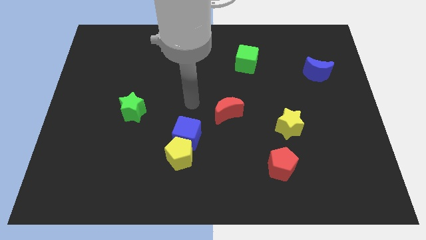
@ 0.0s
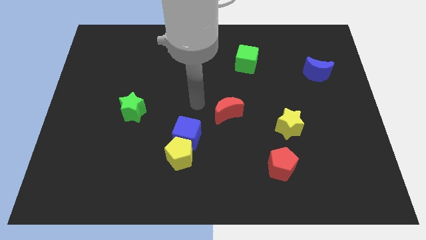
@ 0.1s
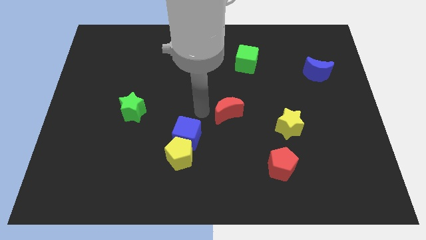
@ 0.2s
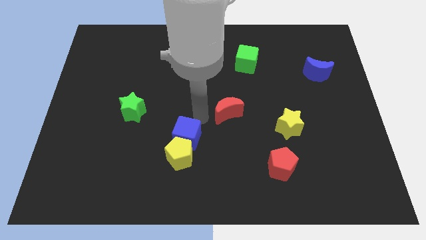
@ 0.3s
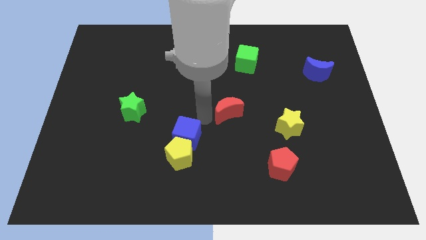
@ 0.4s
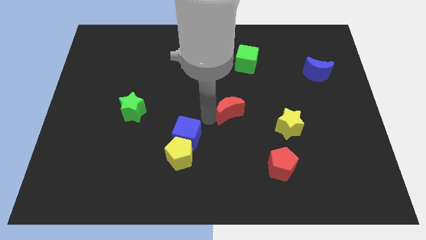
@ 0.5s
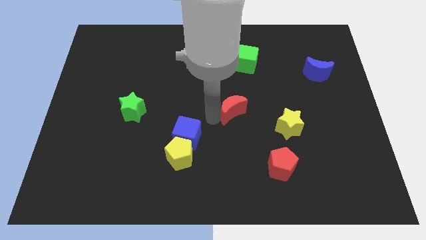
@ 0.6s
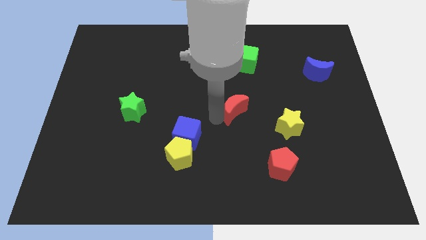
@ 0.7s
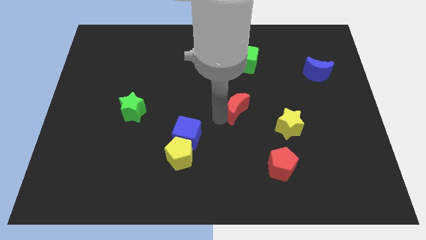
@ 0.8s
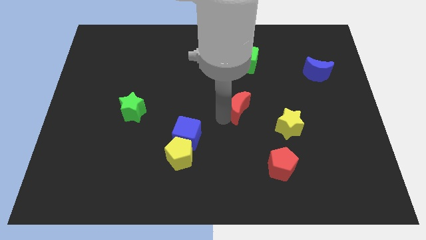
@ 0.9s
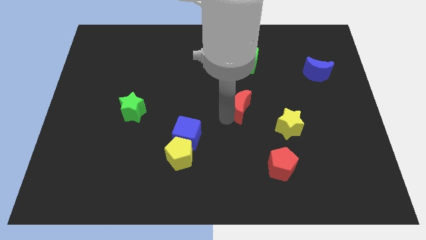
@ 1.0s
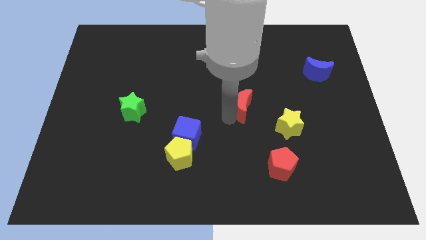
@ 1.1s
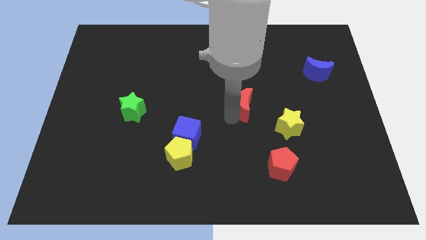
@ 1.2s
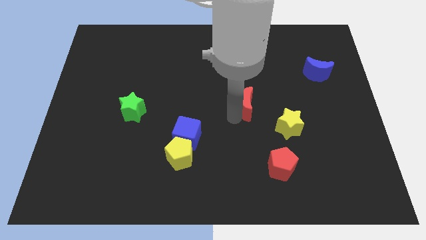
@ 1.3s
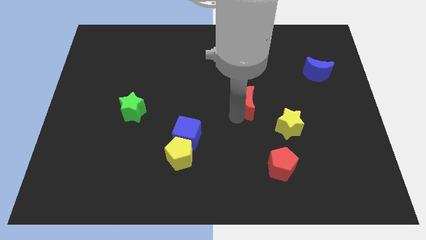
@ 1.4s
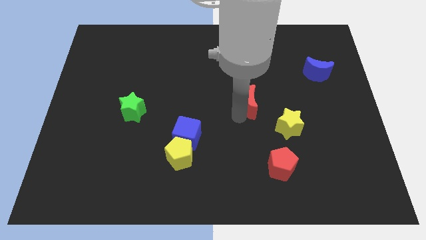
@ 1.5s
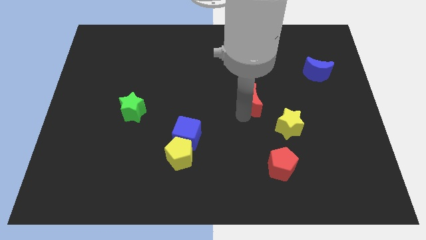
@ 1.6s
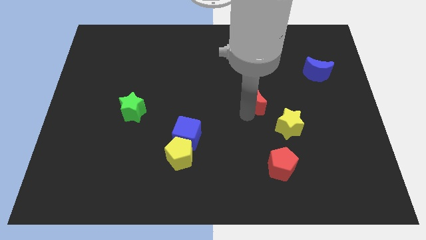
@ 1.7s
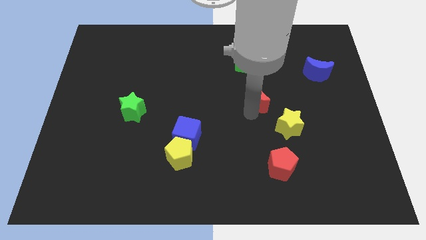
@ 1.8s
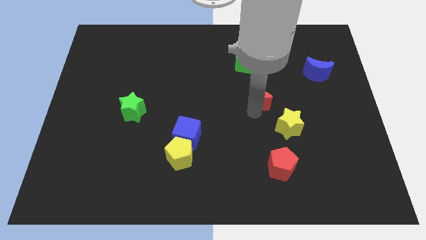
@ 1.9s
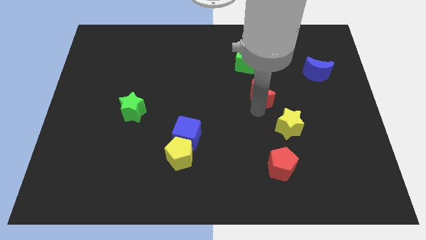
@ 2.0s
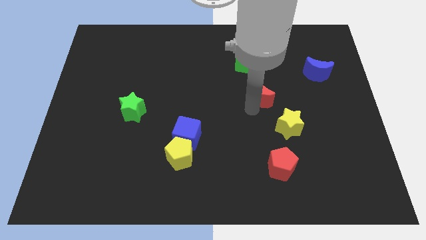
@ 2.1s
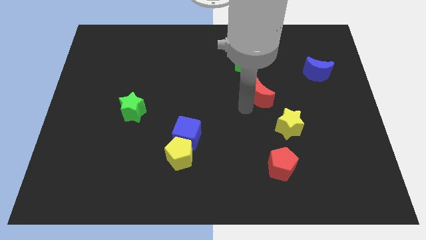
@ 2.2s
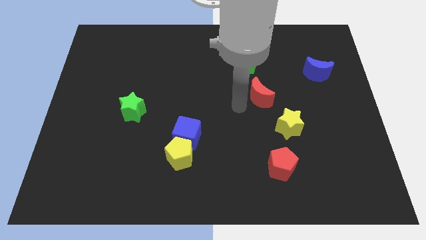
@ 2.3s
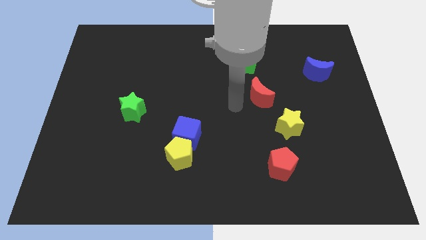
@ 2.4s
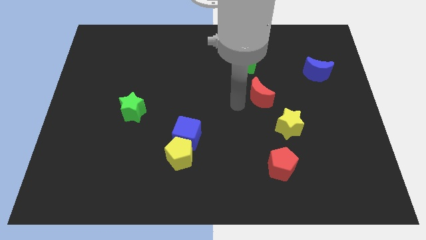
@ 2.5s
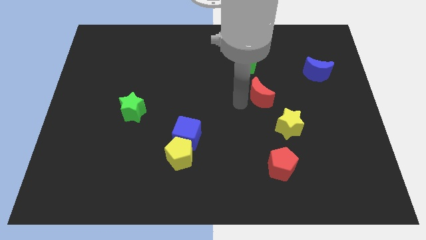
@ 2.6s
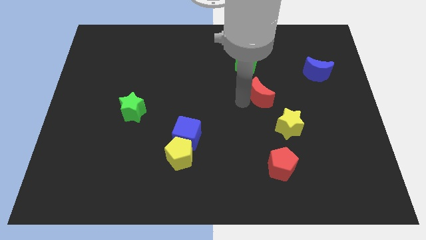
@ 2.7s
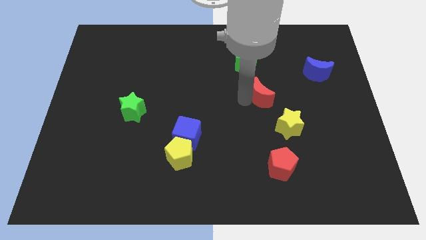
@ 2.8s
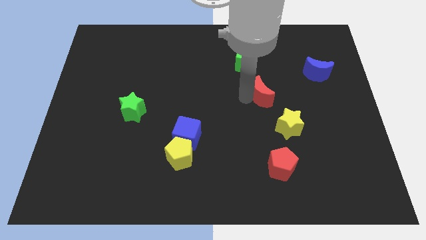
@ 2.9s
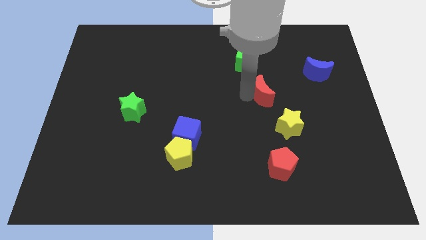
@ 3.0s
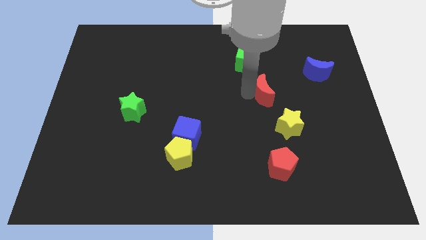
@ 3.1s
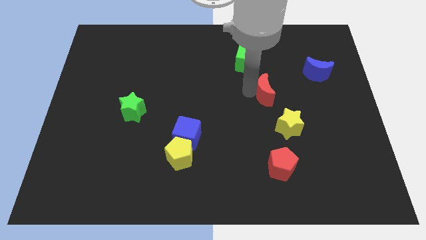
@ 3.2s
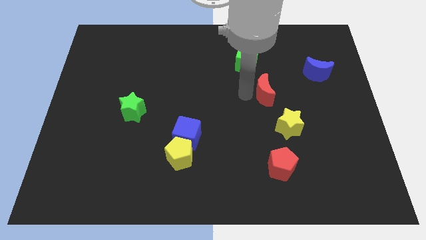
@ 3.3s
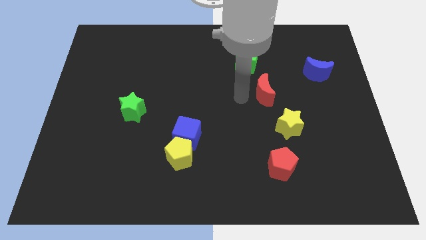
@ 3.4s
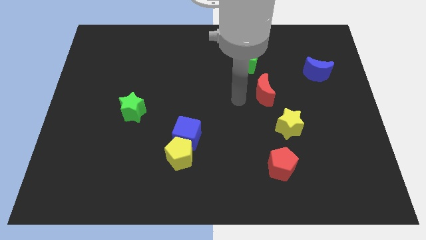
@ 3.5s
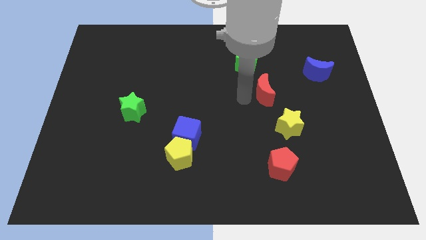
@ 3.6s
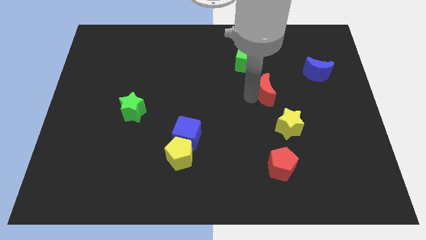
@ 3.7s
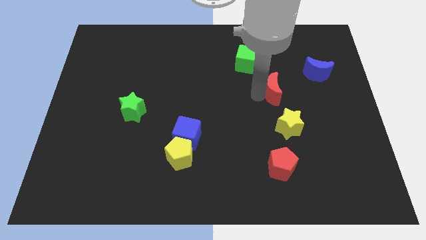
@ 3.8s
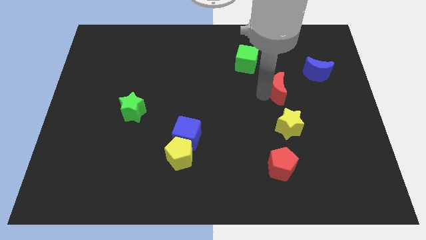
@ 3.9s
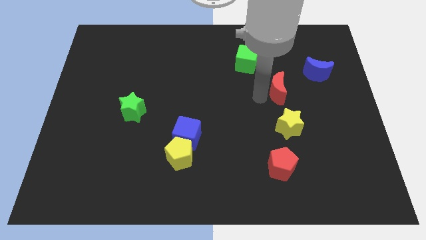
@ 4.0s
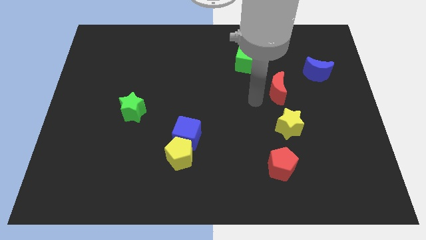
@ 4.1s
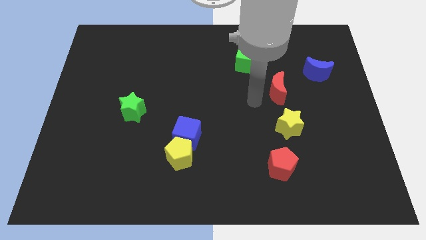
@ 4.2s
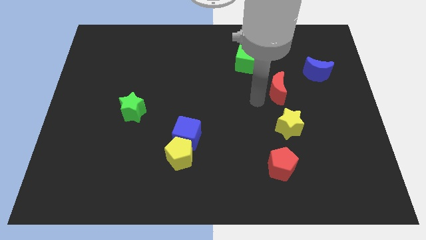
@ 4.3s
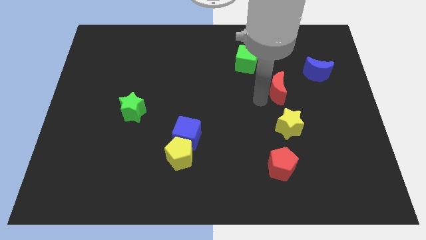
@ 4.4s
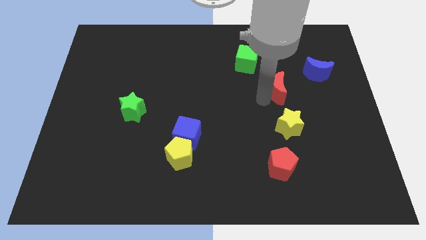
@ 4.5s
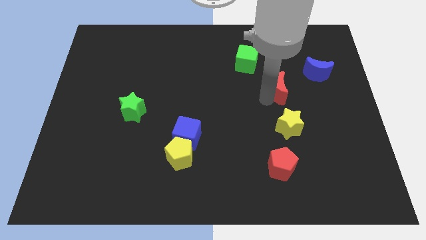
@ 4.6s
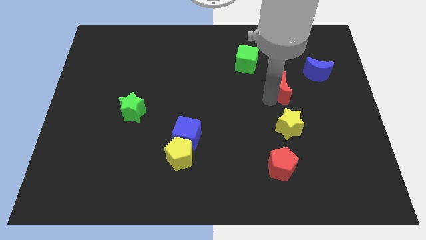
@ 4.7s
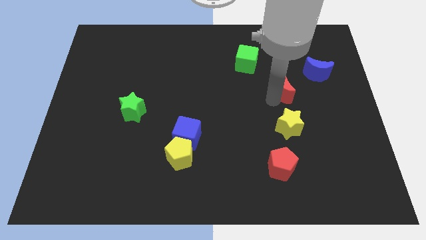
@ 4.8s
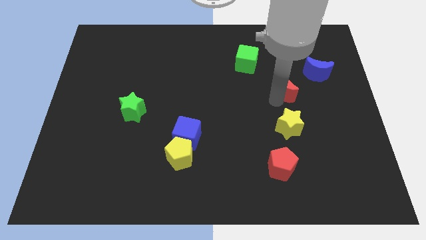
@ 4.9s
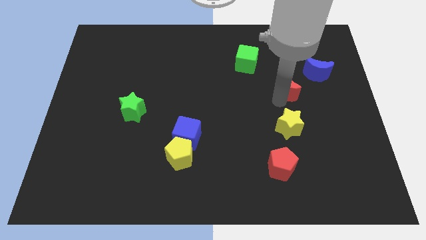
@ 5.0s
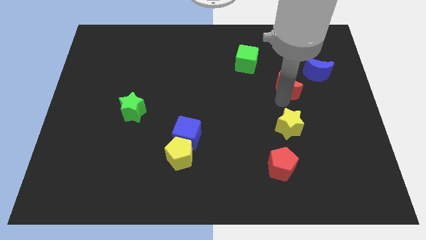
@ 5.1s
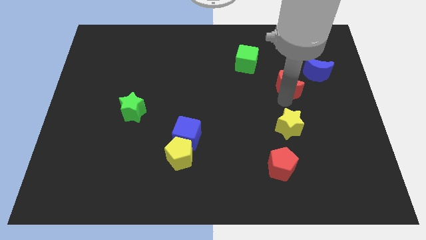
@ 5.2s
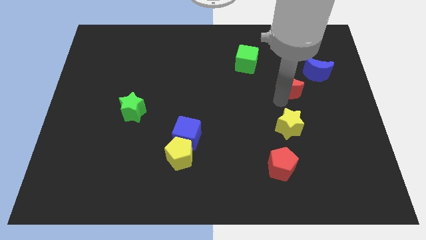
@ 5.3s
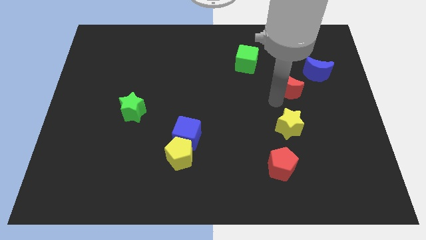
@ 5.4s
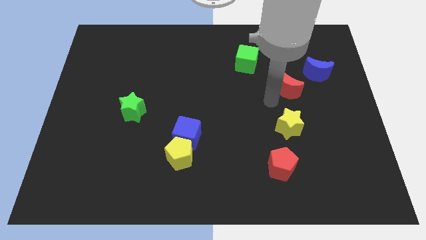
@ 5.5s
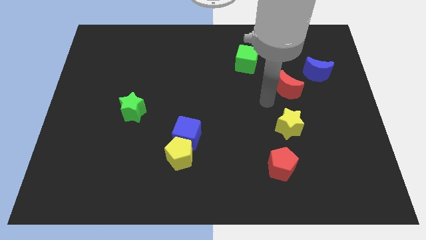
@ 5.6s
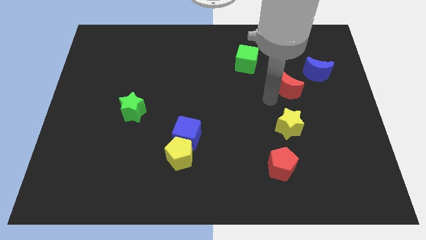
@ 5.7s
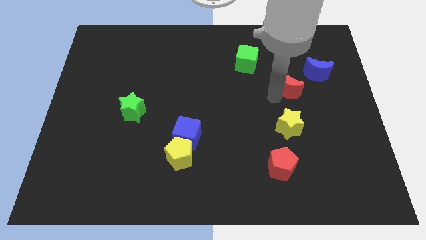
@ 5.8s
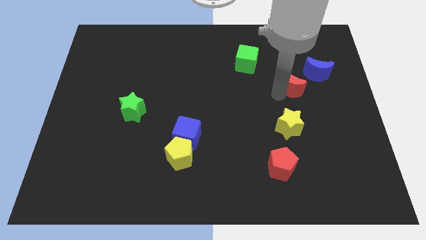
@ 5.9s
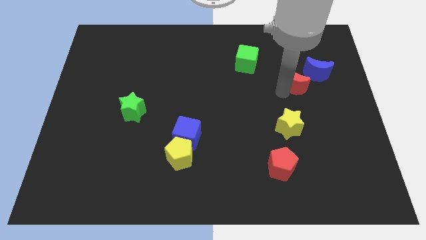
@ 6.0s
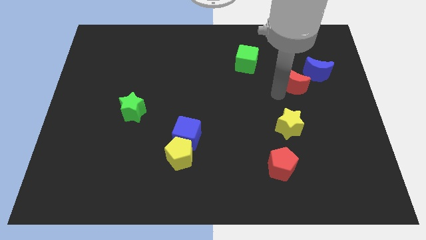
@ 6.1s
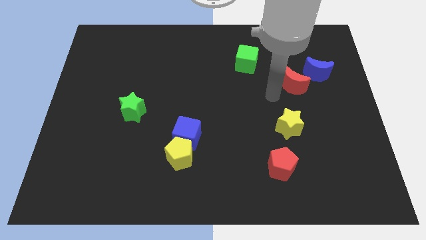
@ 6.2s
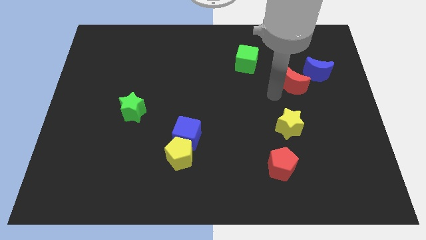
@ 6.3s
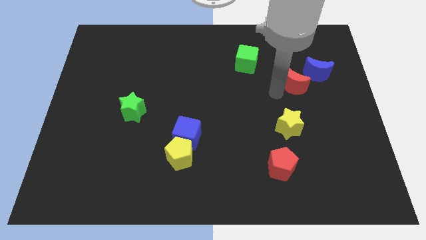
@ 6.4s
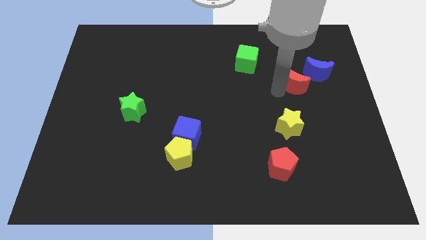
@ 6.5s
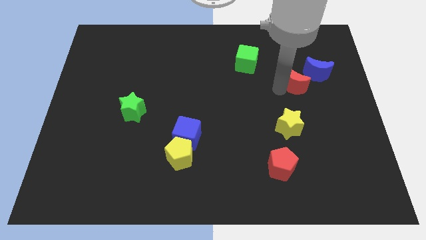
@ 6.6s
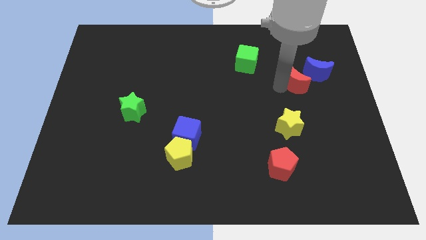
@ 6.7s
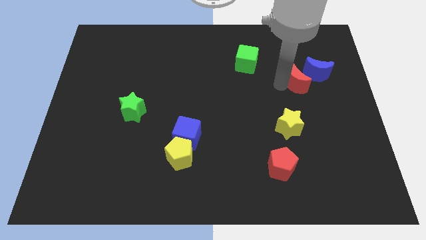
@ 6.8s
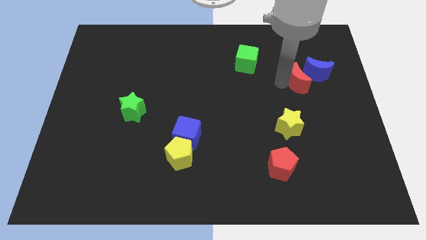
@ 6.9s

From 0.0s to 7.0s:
push the red moon next to the blue moon
